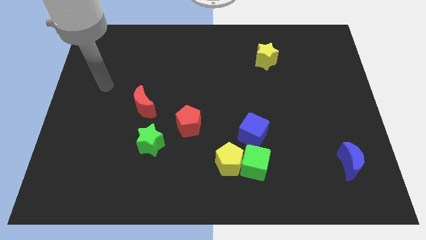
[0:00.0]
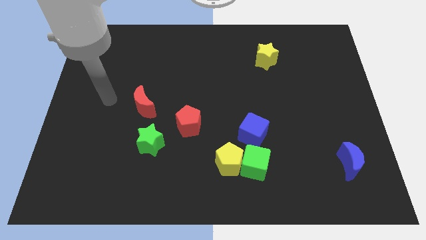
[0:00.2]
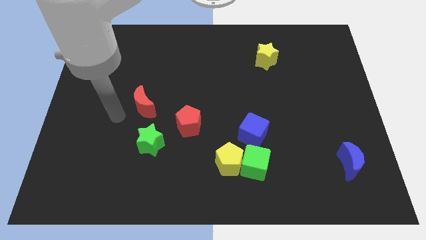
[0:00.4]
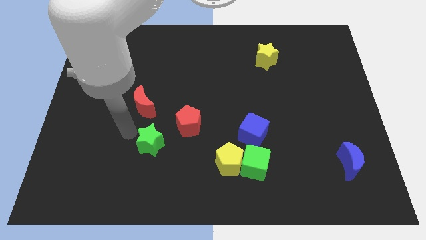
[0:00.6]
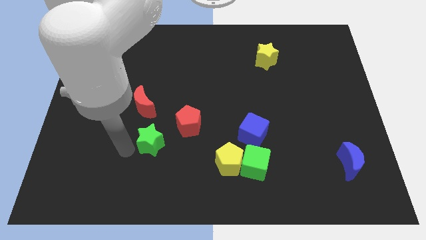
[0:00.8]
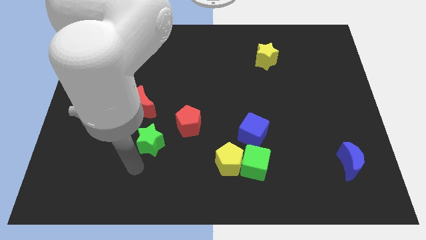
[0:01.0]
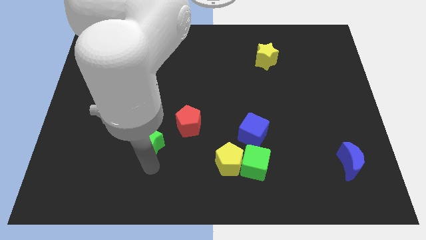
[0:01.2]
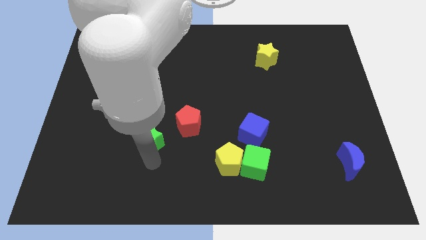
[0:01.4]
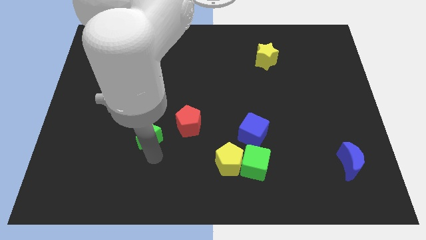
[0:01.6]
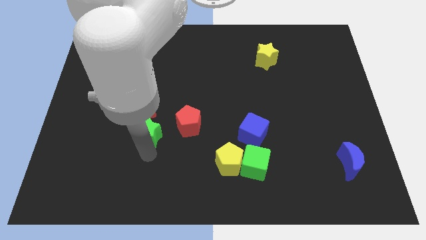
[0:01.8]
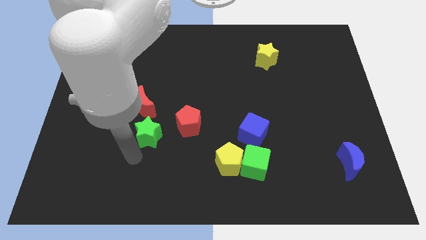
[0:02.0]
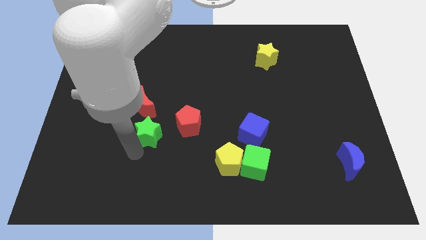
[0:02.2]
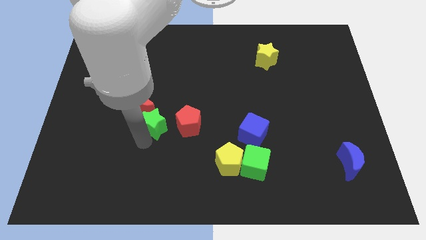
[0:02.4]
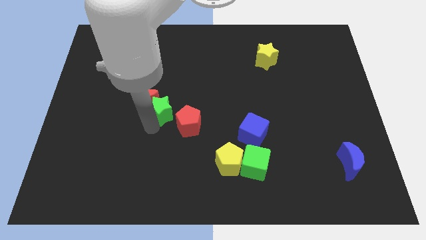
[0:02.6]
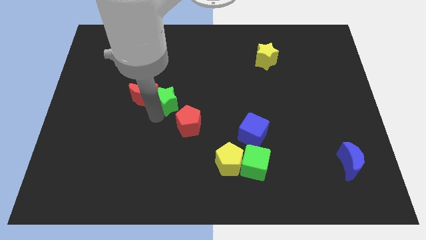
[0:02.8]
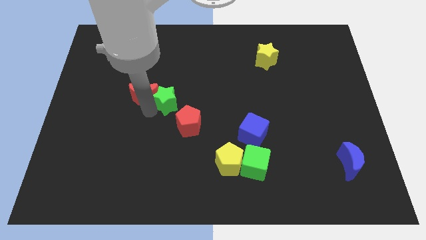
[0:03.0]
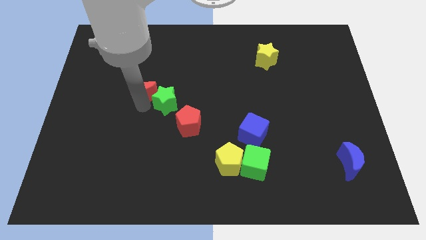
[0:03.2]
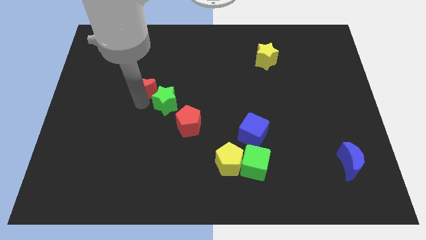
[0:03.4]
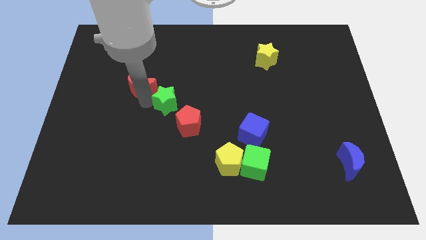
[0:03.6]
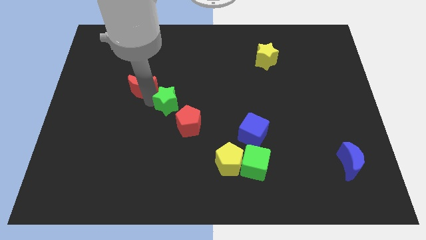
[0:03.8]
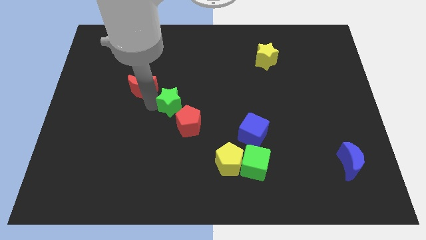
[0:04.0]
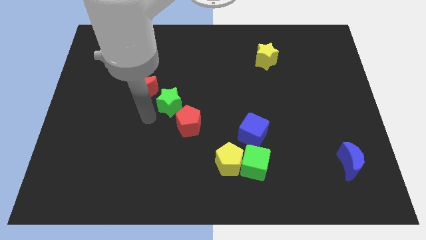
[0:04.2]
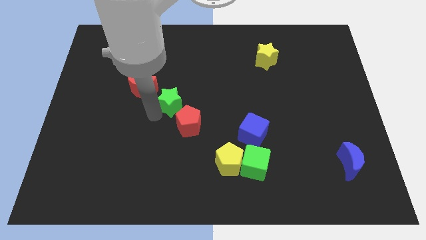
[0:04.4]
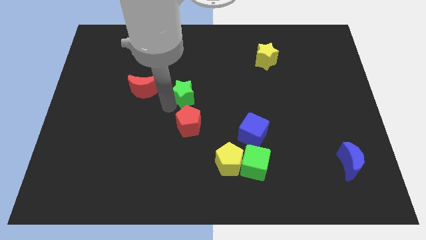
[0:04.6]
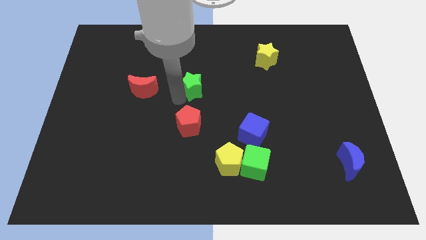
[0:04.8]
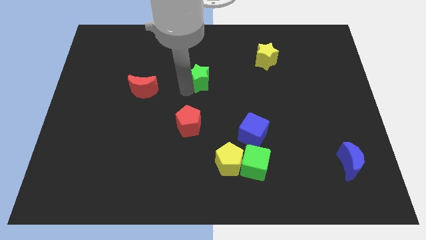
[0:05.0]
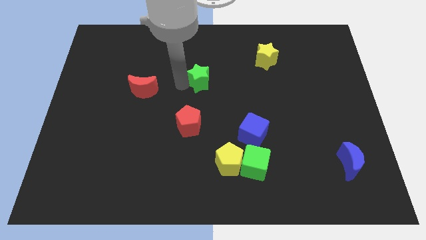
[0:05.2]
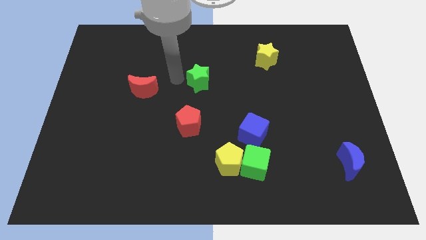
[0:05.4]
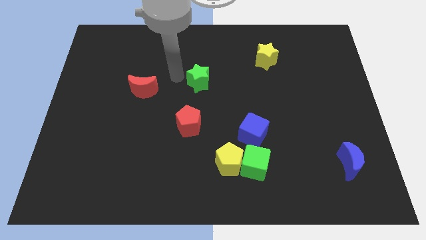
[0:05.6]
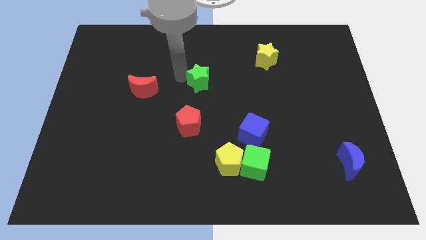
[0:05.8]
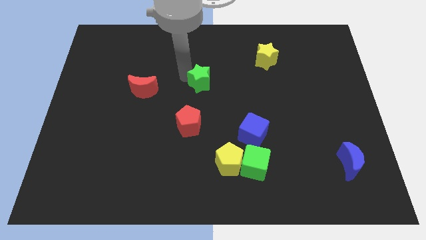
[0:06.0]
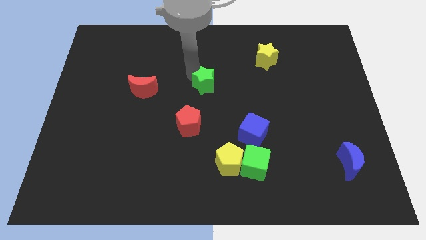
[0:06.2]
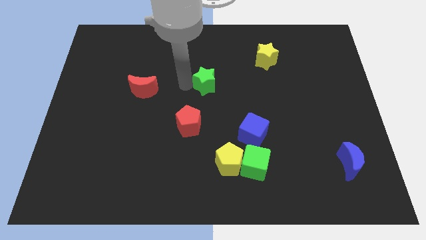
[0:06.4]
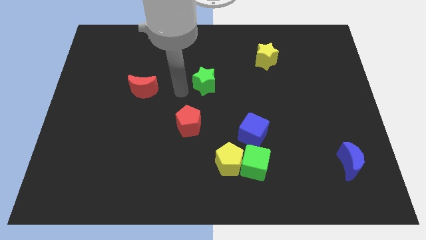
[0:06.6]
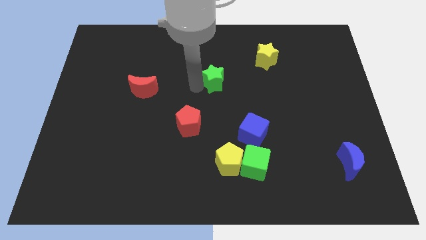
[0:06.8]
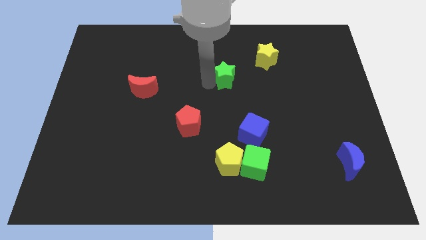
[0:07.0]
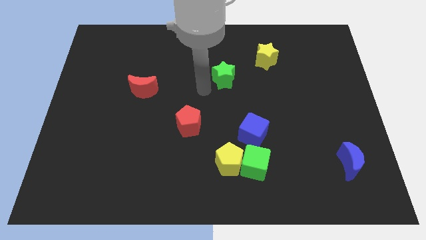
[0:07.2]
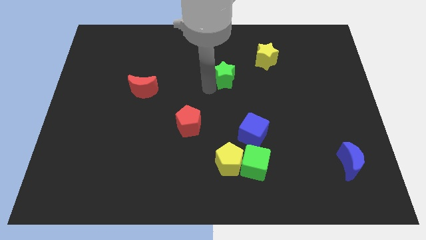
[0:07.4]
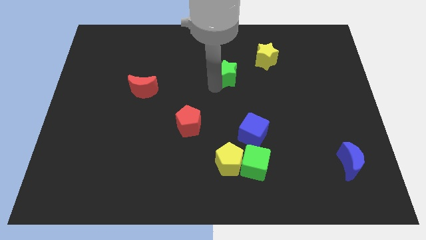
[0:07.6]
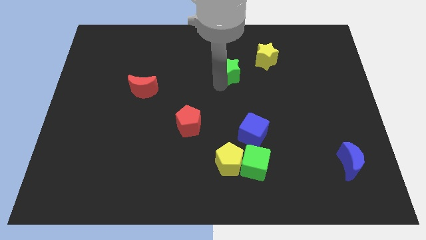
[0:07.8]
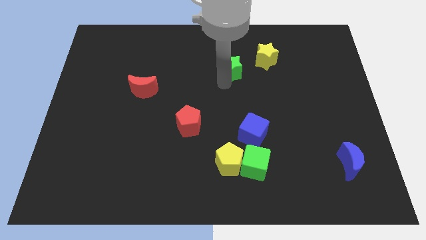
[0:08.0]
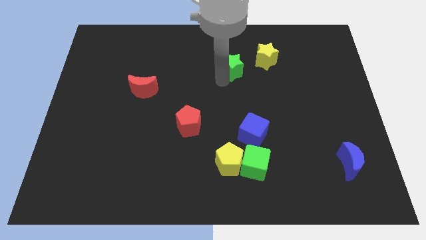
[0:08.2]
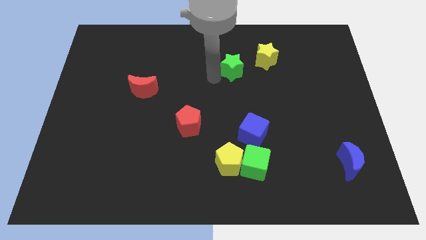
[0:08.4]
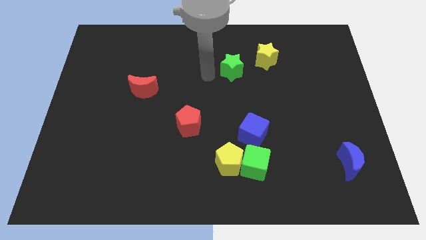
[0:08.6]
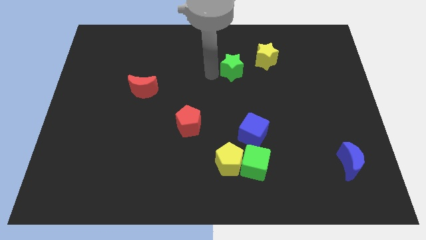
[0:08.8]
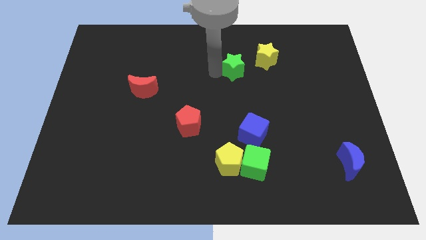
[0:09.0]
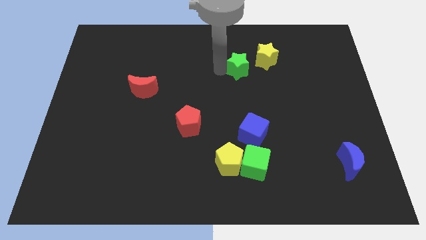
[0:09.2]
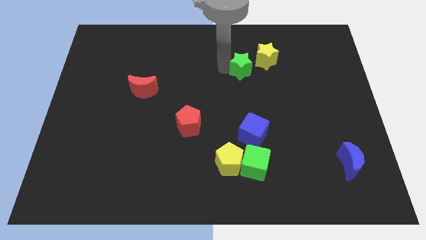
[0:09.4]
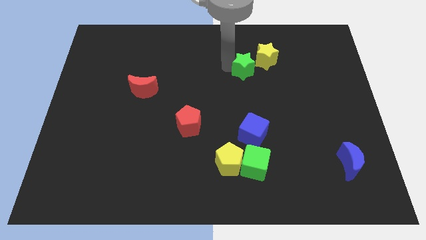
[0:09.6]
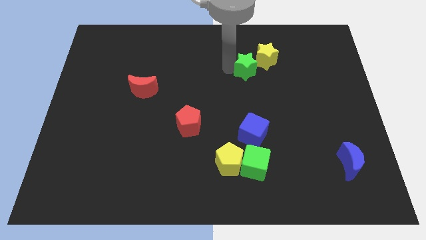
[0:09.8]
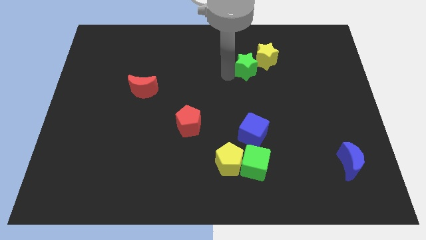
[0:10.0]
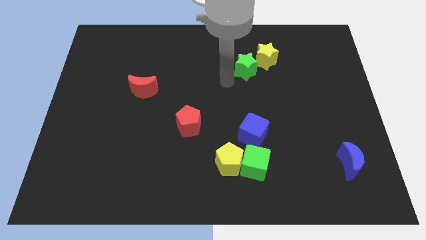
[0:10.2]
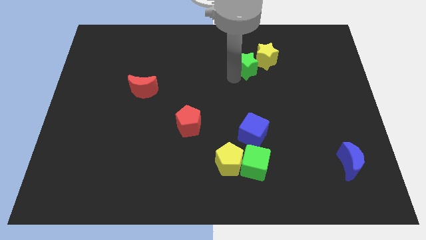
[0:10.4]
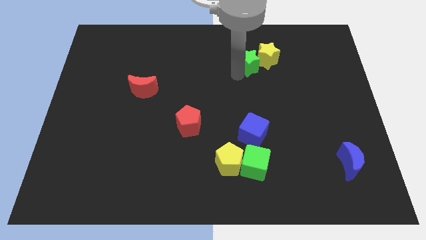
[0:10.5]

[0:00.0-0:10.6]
push the green star next to the yellow star

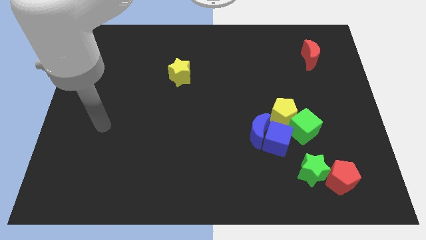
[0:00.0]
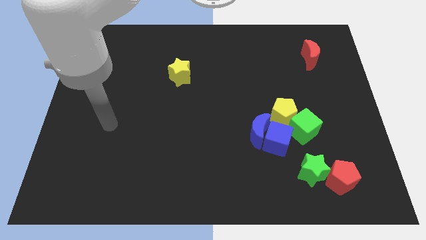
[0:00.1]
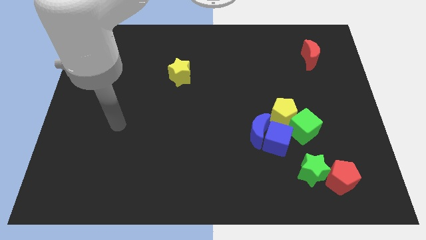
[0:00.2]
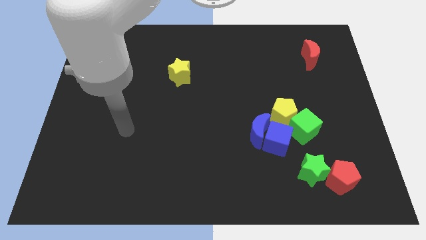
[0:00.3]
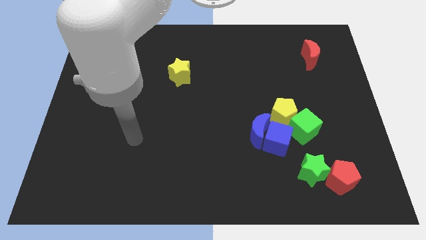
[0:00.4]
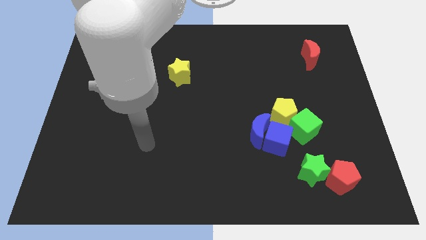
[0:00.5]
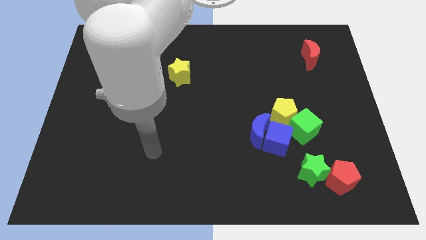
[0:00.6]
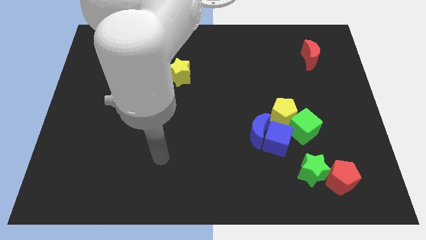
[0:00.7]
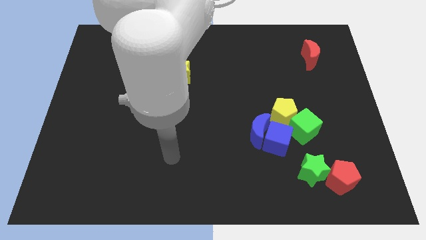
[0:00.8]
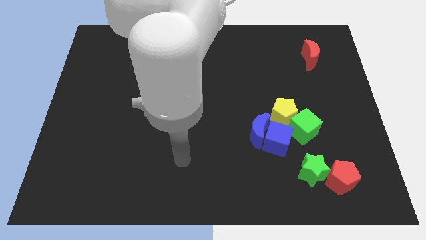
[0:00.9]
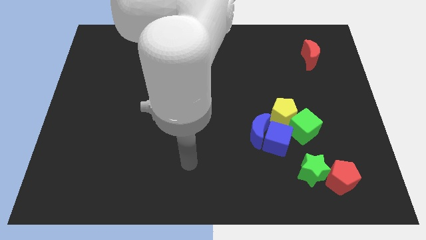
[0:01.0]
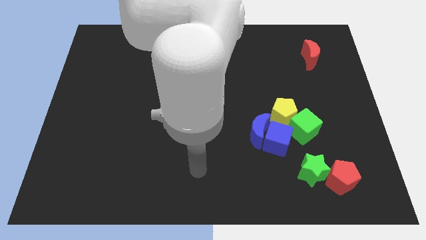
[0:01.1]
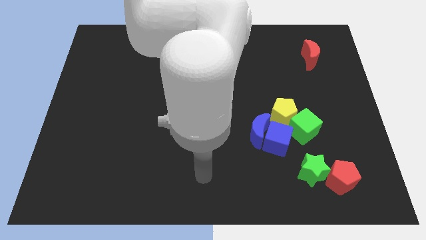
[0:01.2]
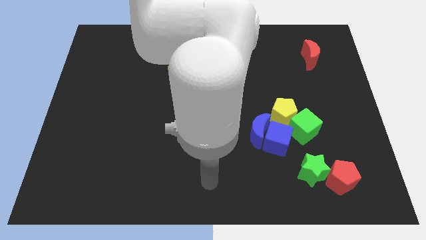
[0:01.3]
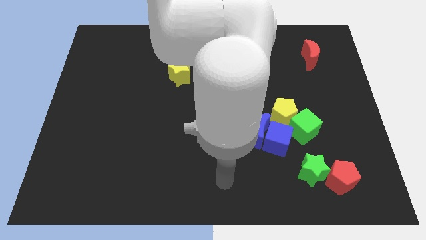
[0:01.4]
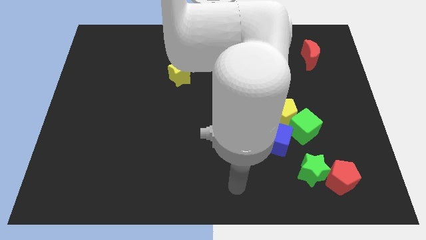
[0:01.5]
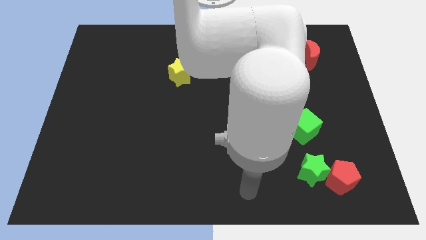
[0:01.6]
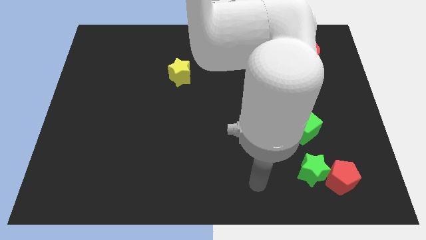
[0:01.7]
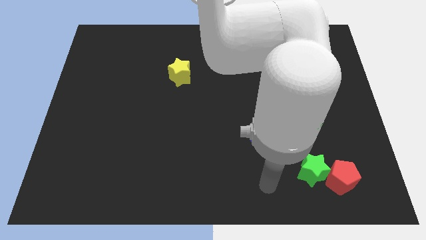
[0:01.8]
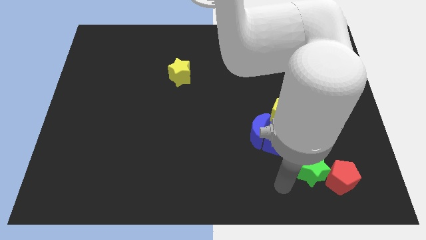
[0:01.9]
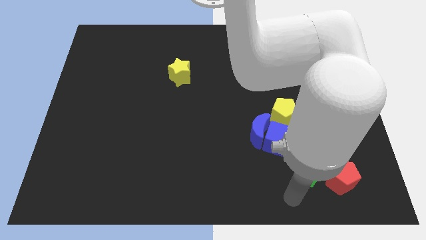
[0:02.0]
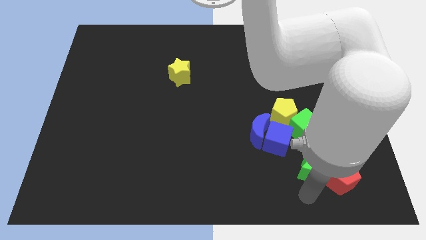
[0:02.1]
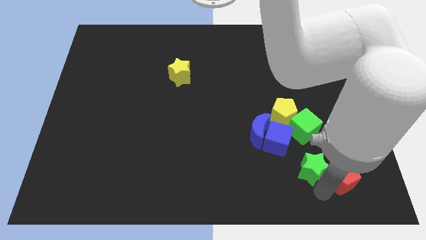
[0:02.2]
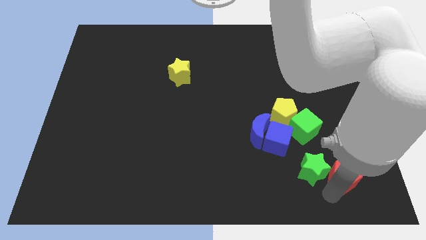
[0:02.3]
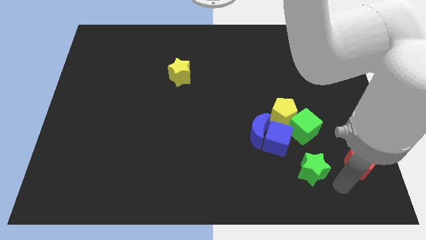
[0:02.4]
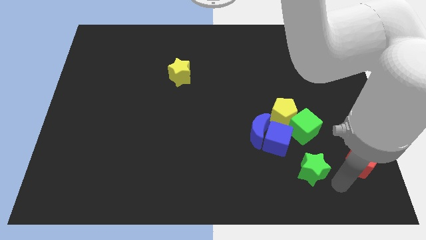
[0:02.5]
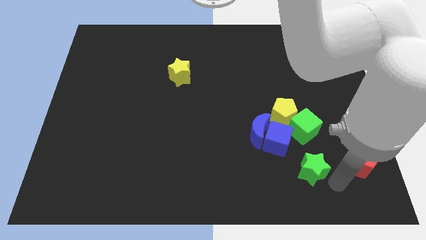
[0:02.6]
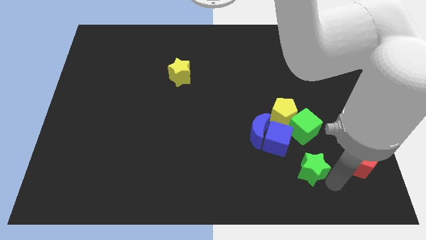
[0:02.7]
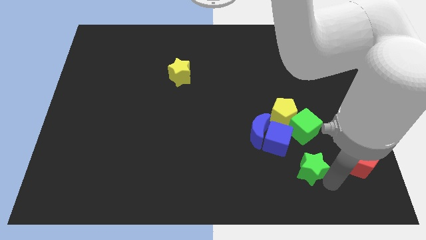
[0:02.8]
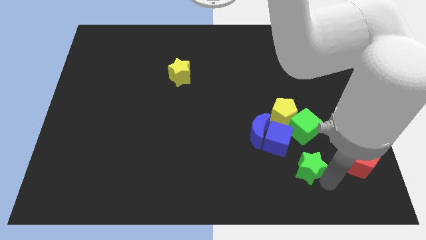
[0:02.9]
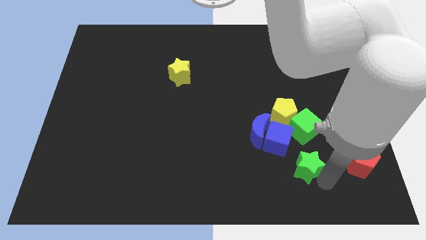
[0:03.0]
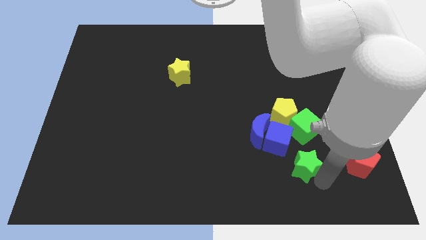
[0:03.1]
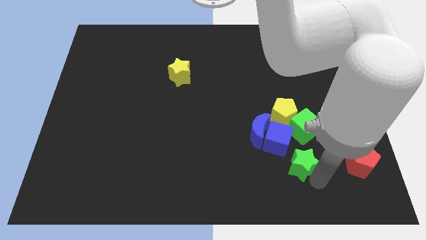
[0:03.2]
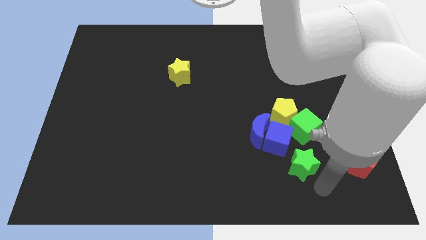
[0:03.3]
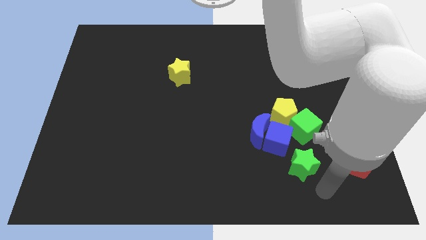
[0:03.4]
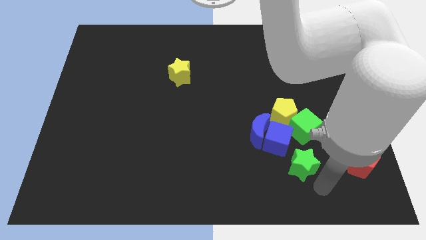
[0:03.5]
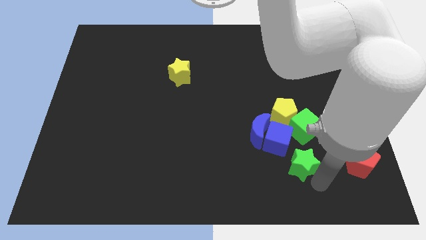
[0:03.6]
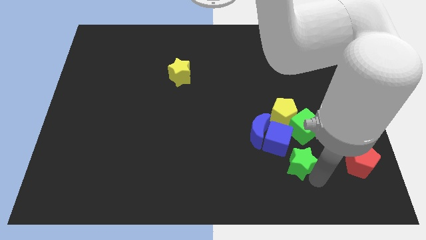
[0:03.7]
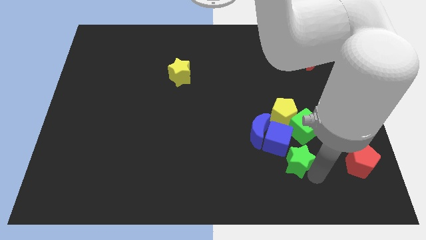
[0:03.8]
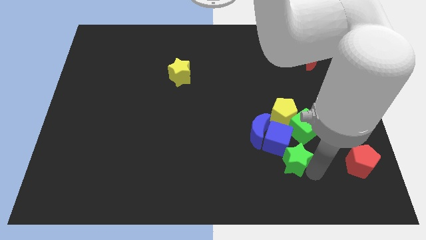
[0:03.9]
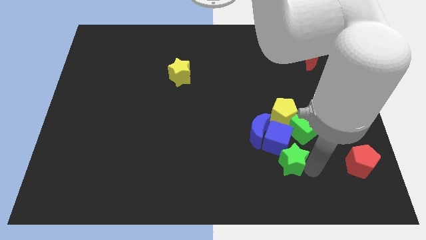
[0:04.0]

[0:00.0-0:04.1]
put the green star to the blue cube
